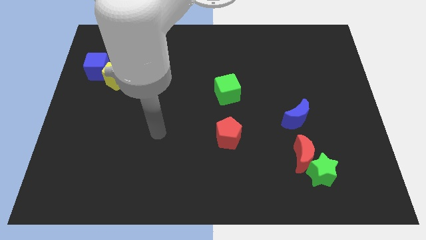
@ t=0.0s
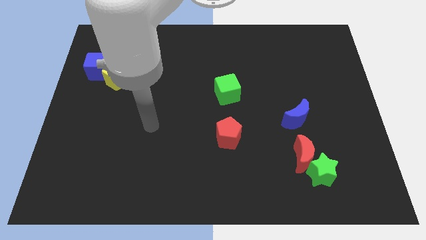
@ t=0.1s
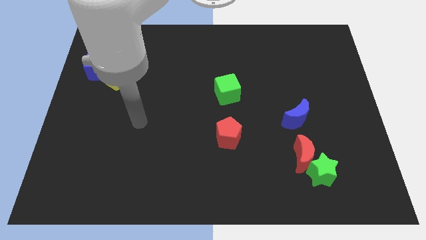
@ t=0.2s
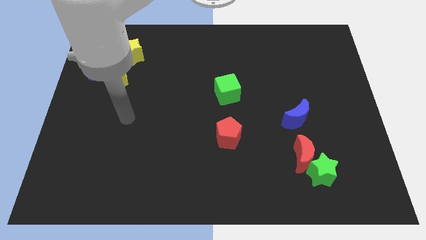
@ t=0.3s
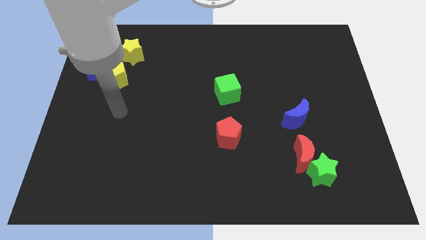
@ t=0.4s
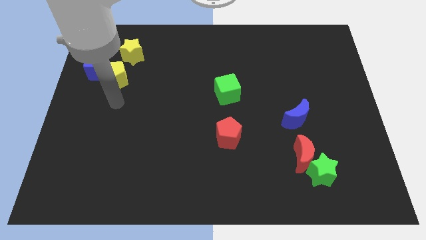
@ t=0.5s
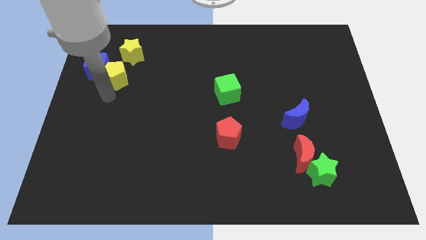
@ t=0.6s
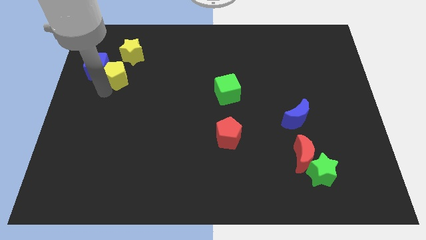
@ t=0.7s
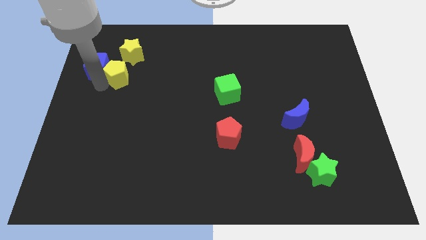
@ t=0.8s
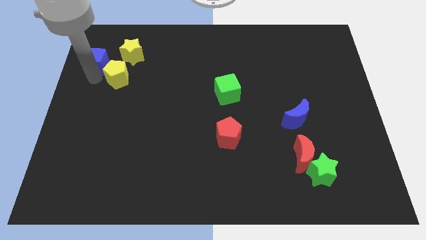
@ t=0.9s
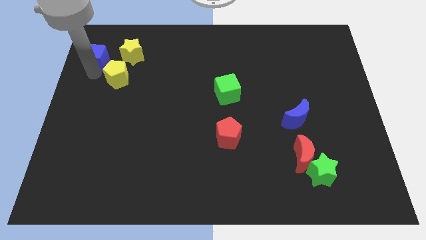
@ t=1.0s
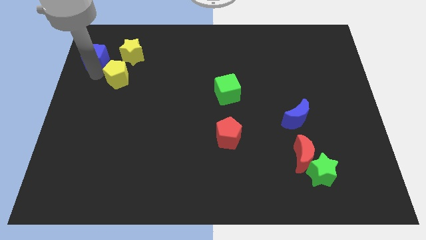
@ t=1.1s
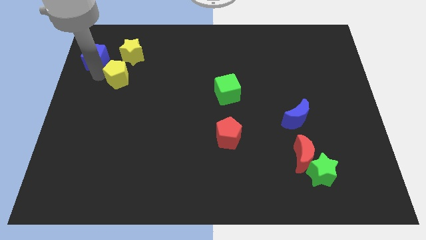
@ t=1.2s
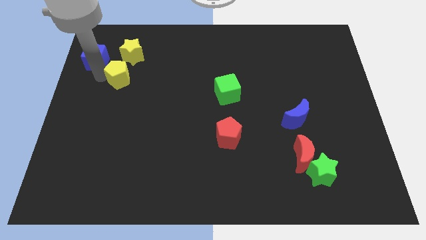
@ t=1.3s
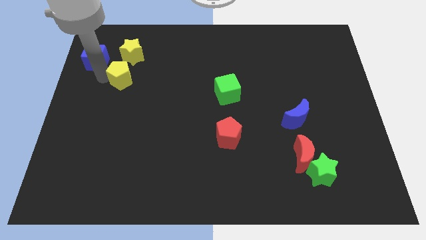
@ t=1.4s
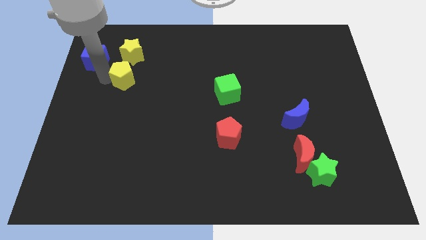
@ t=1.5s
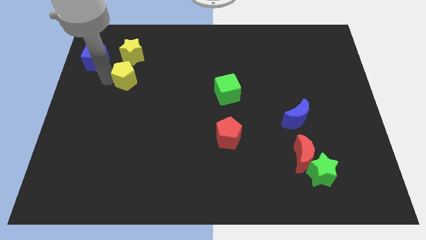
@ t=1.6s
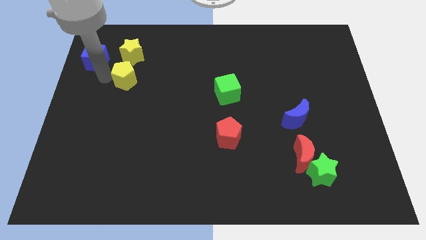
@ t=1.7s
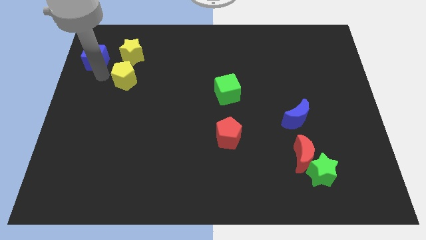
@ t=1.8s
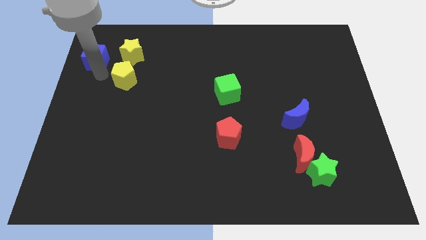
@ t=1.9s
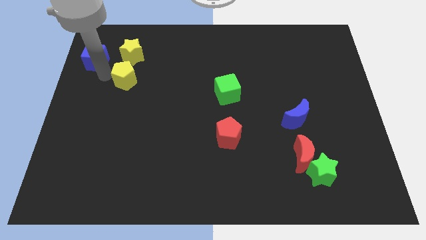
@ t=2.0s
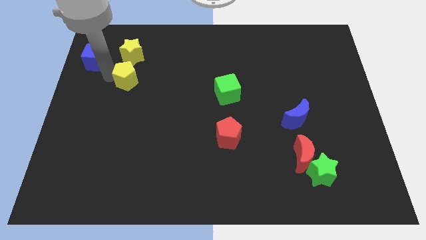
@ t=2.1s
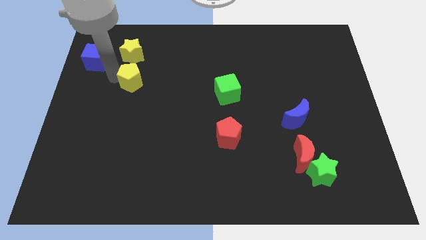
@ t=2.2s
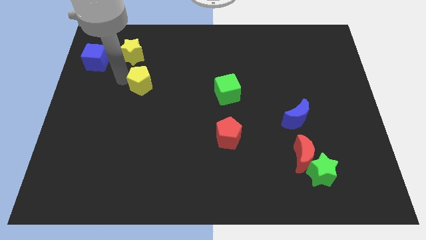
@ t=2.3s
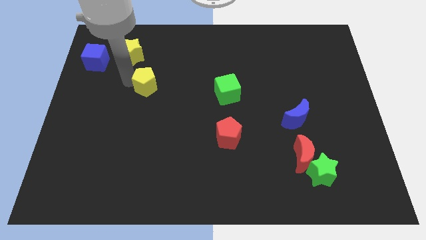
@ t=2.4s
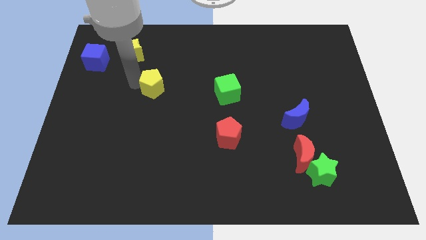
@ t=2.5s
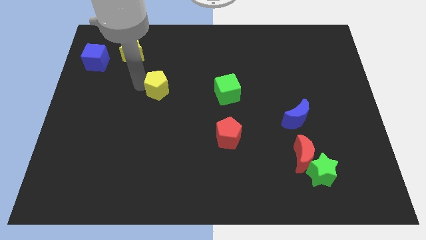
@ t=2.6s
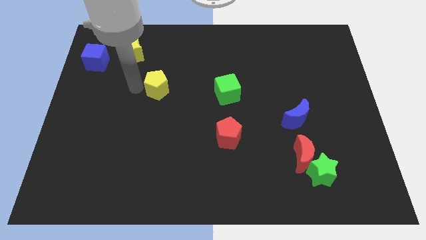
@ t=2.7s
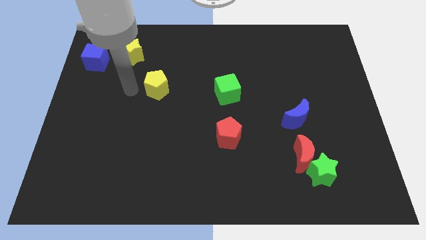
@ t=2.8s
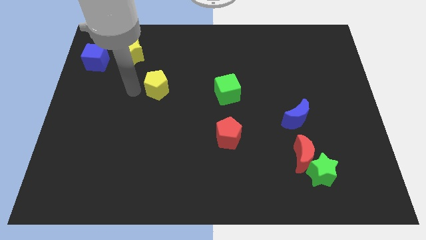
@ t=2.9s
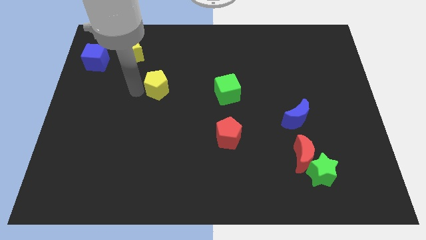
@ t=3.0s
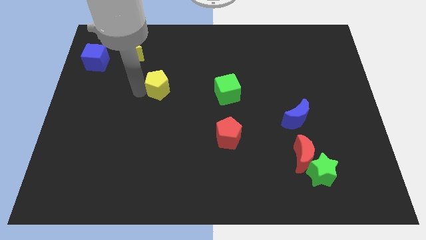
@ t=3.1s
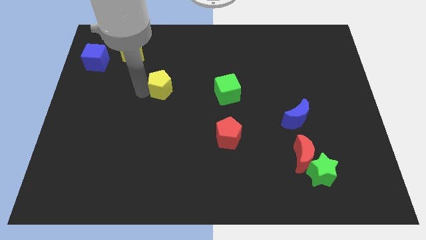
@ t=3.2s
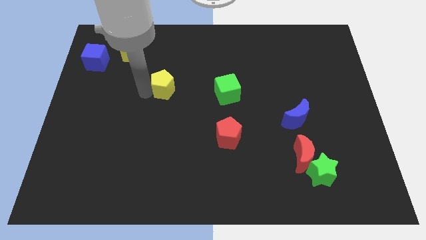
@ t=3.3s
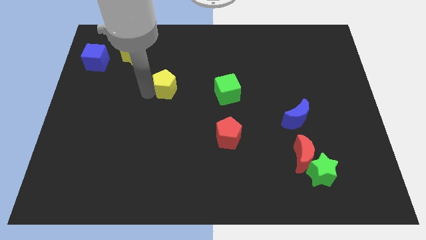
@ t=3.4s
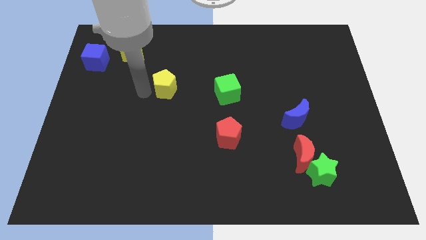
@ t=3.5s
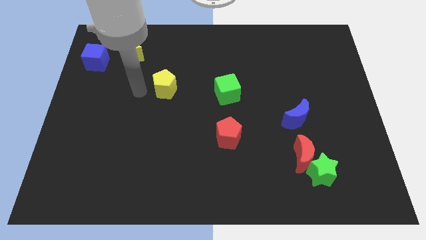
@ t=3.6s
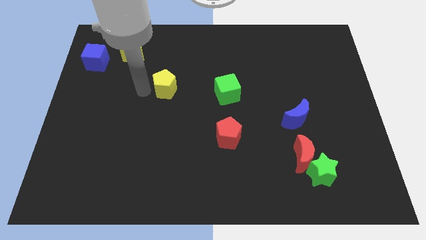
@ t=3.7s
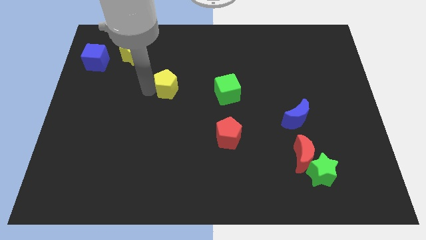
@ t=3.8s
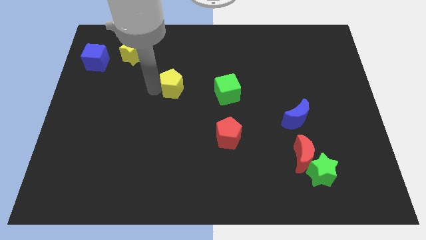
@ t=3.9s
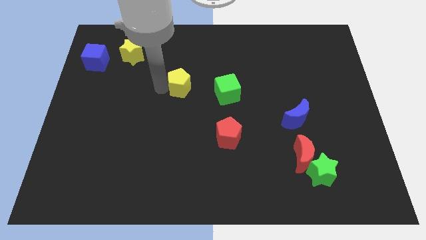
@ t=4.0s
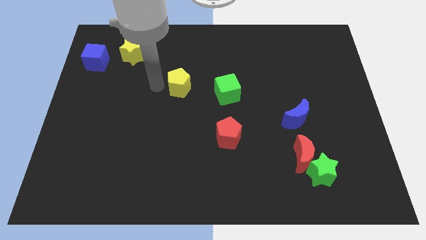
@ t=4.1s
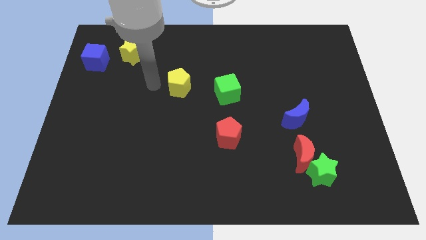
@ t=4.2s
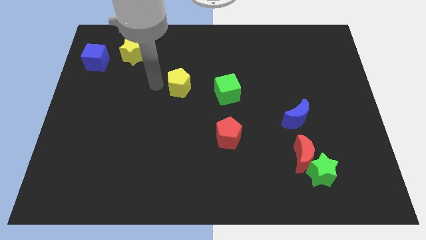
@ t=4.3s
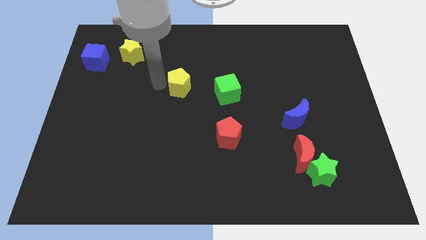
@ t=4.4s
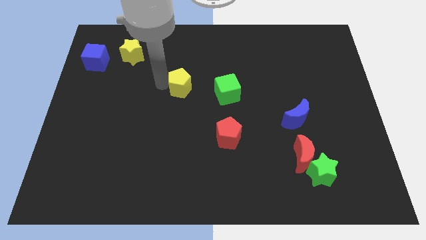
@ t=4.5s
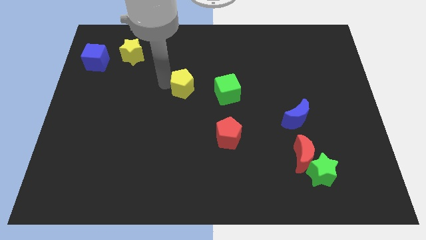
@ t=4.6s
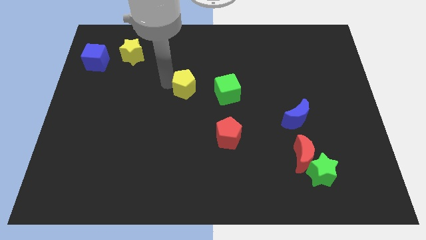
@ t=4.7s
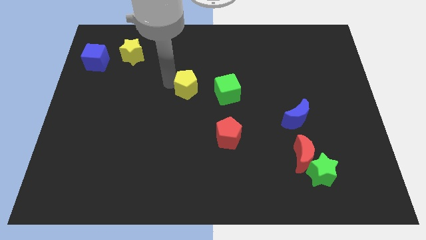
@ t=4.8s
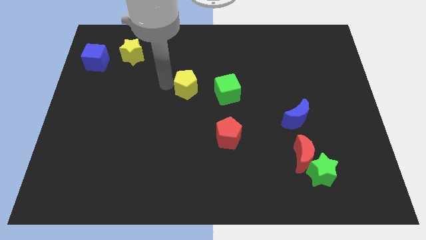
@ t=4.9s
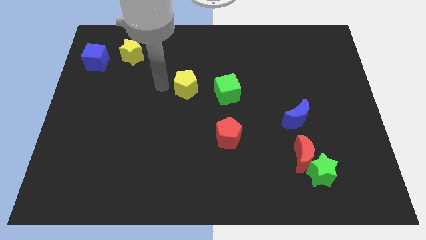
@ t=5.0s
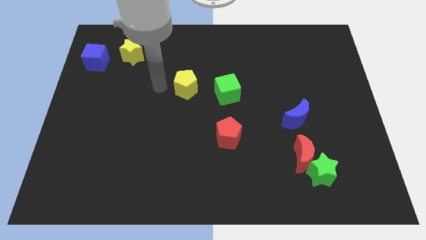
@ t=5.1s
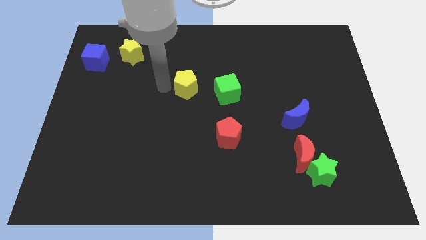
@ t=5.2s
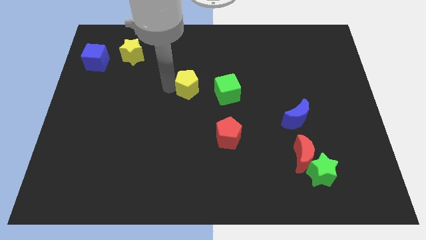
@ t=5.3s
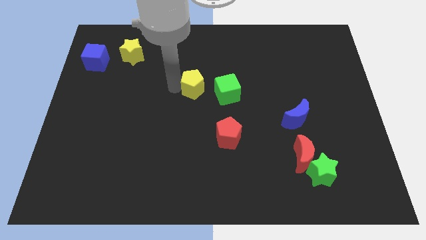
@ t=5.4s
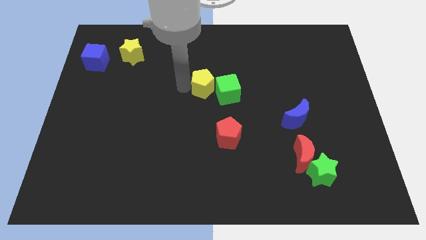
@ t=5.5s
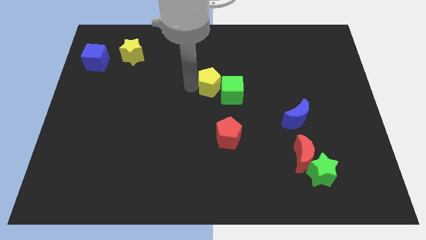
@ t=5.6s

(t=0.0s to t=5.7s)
slide the yellow pentagon close to the green cube

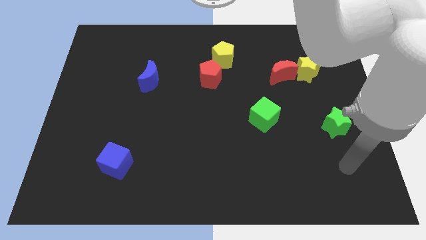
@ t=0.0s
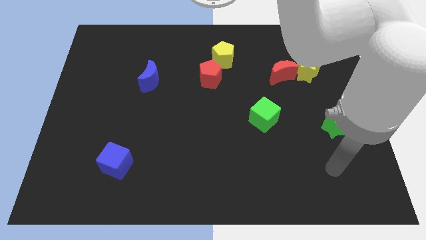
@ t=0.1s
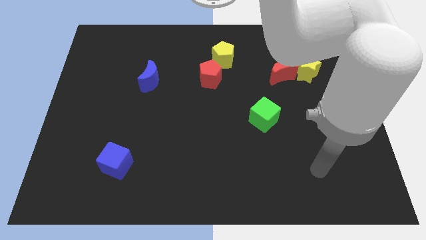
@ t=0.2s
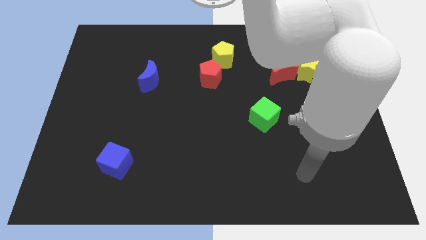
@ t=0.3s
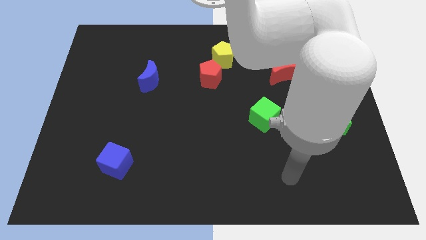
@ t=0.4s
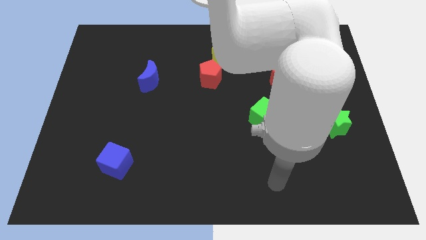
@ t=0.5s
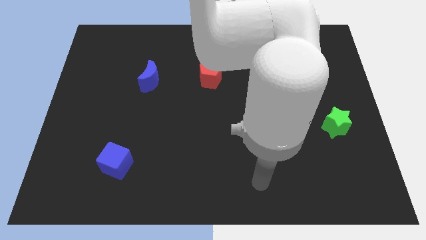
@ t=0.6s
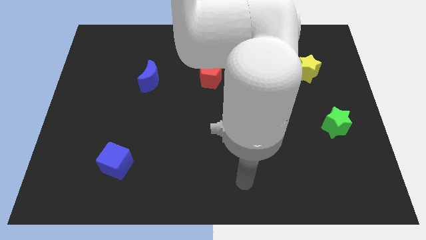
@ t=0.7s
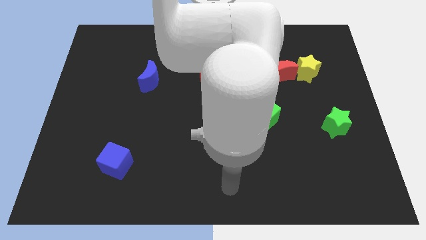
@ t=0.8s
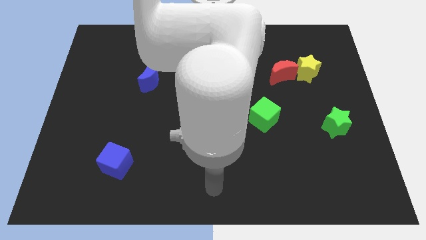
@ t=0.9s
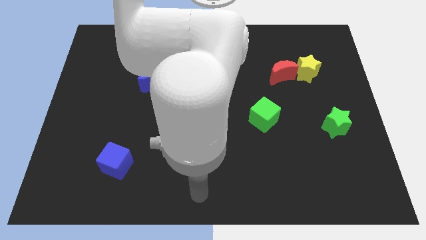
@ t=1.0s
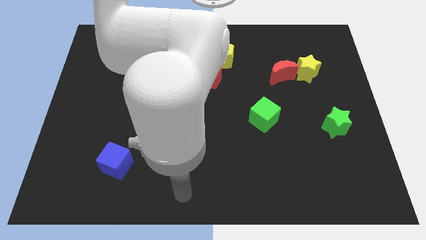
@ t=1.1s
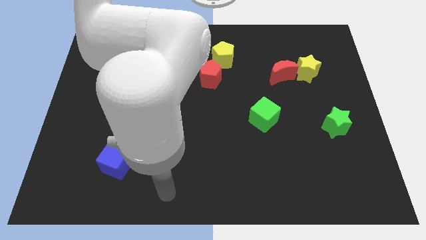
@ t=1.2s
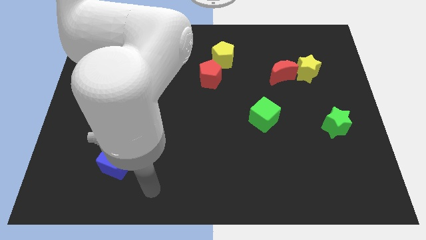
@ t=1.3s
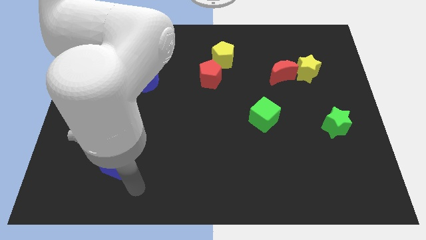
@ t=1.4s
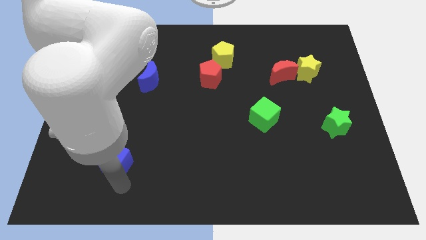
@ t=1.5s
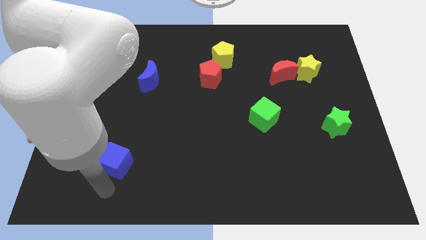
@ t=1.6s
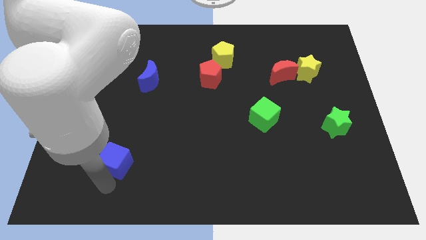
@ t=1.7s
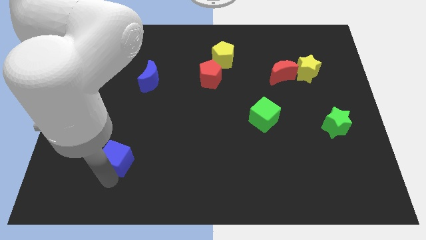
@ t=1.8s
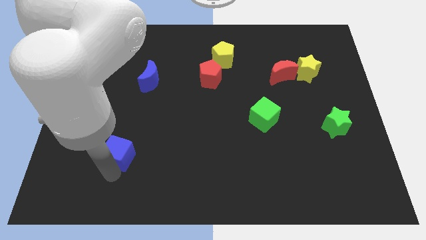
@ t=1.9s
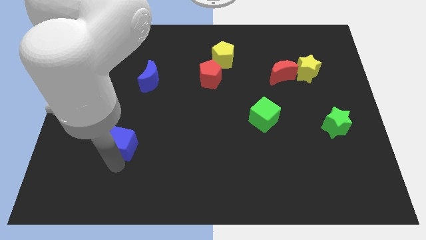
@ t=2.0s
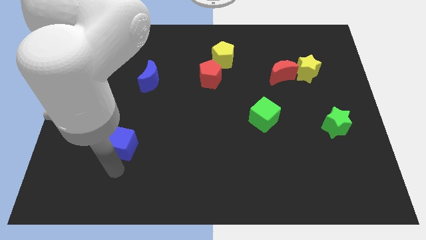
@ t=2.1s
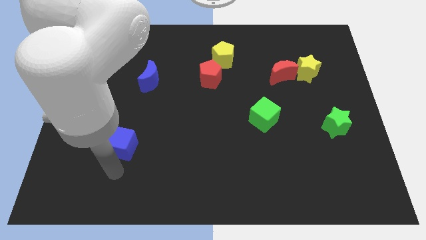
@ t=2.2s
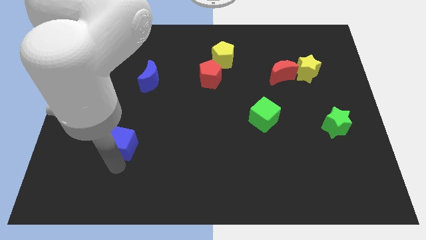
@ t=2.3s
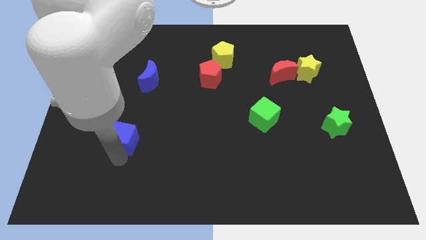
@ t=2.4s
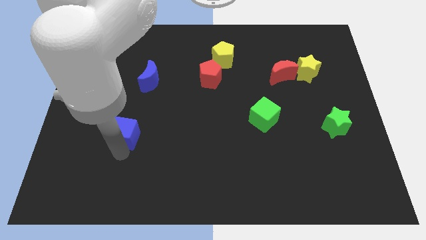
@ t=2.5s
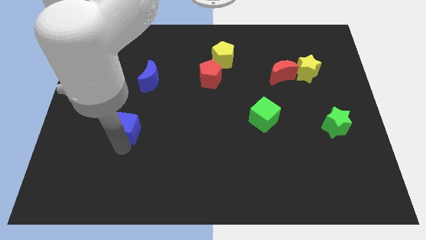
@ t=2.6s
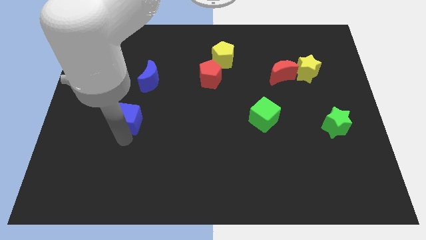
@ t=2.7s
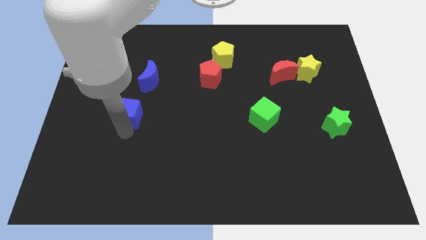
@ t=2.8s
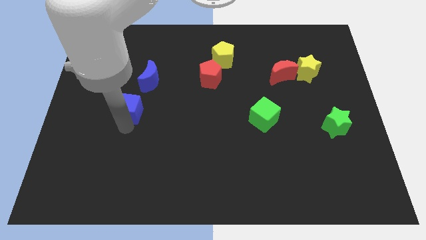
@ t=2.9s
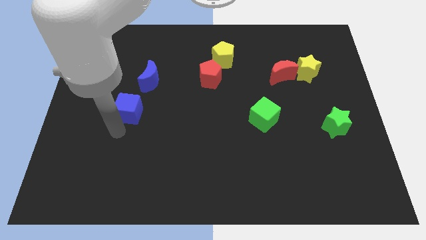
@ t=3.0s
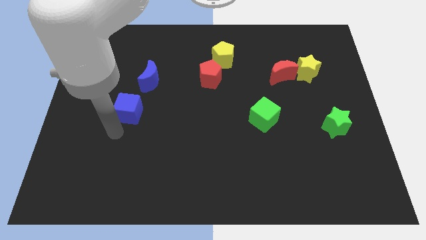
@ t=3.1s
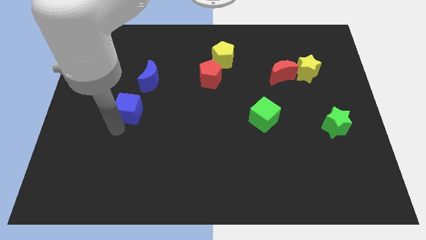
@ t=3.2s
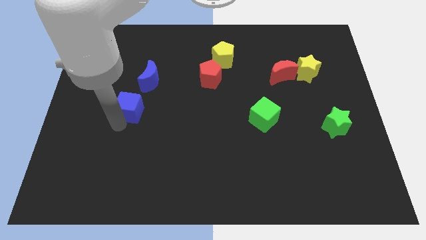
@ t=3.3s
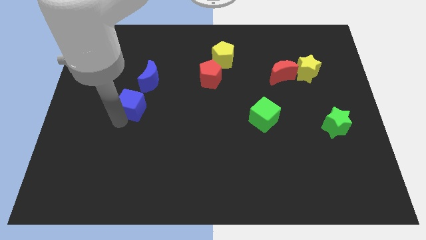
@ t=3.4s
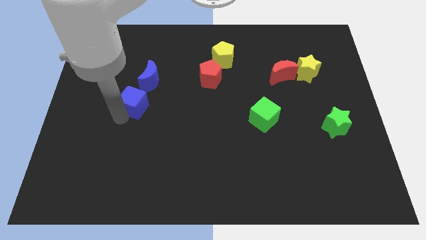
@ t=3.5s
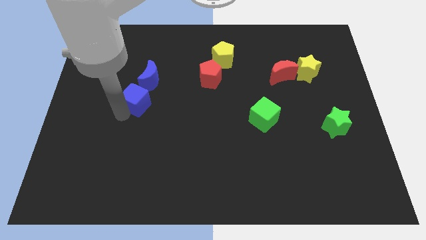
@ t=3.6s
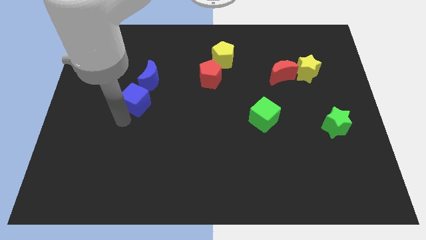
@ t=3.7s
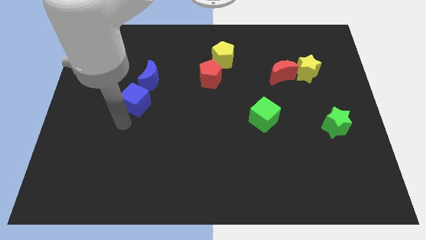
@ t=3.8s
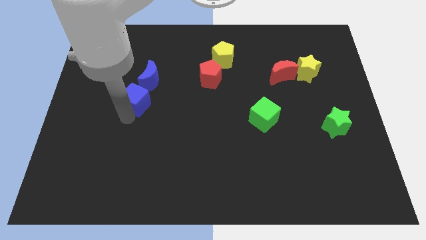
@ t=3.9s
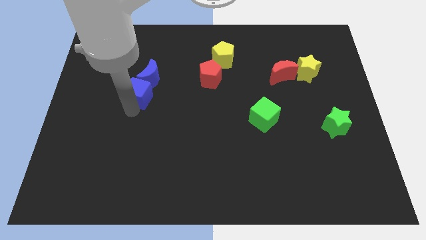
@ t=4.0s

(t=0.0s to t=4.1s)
put the blue cube to the blue moon
